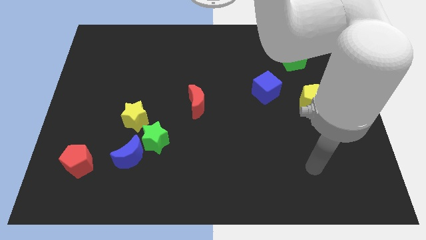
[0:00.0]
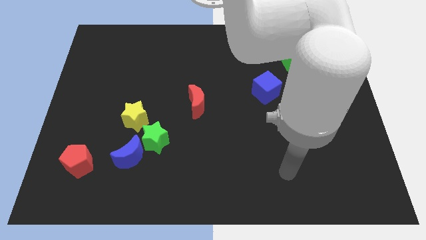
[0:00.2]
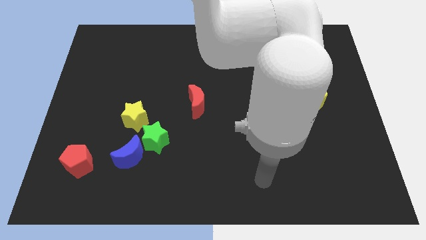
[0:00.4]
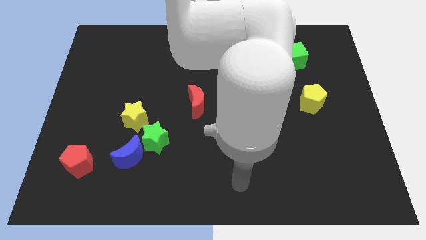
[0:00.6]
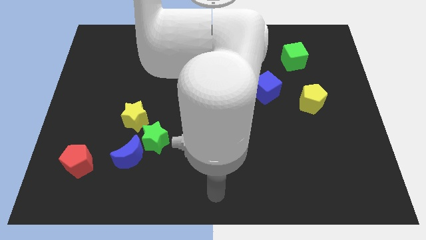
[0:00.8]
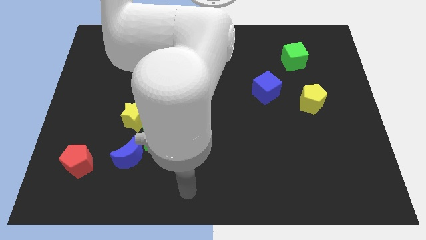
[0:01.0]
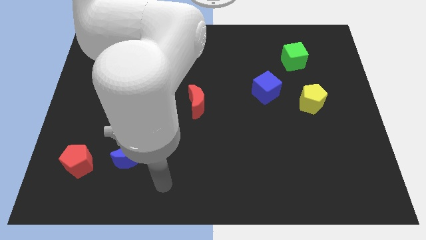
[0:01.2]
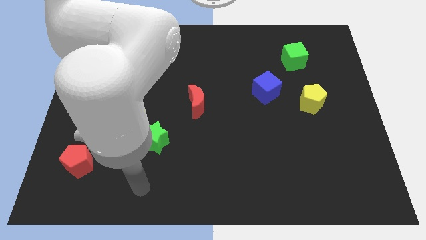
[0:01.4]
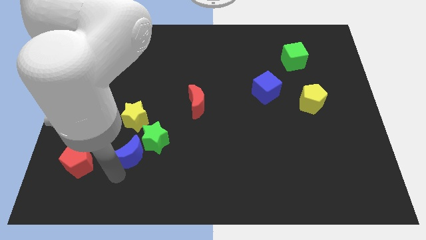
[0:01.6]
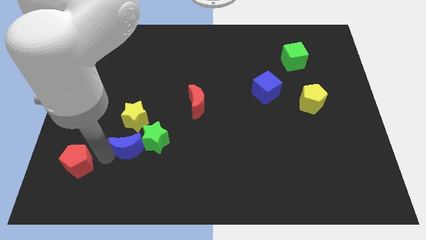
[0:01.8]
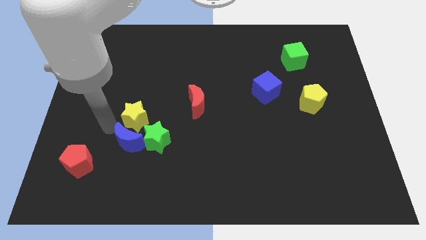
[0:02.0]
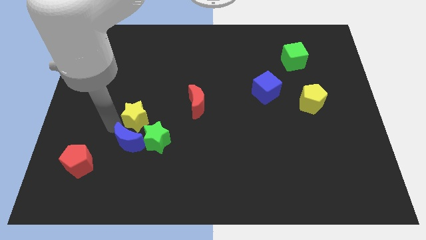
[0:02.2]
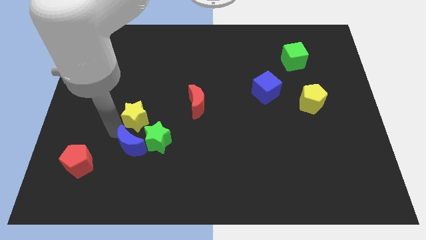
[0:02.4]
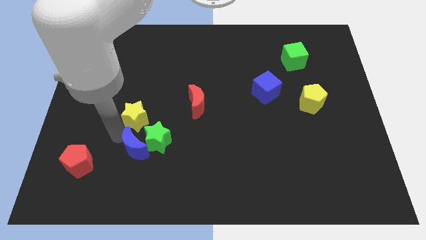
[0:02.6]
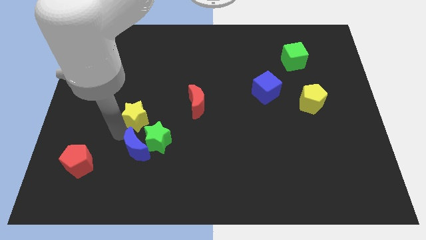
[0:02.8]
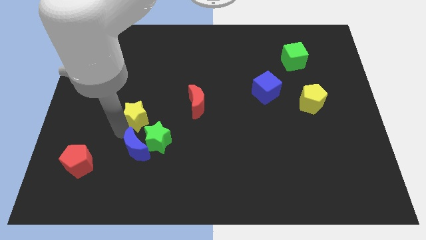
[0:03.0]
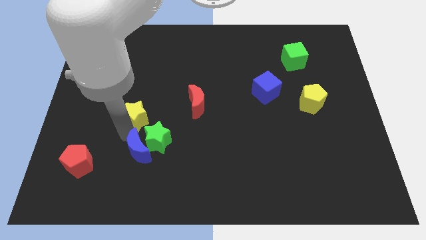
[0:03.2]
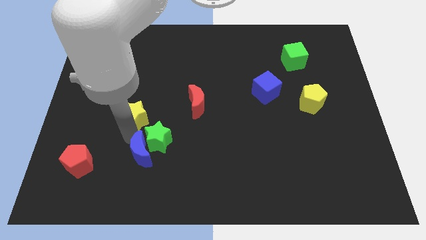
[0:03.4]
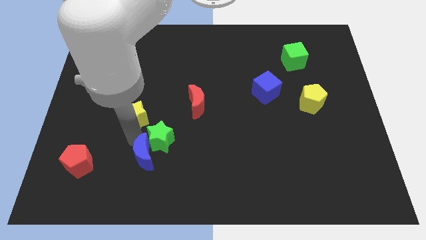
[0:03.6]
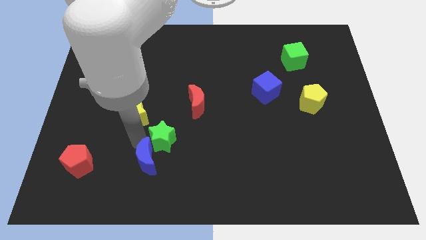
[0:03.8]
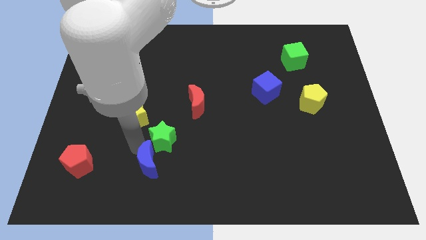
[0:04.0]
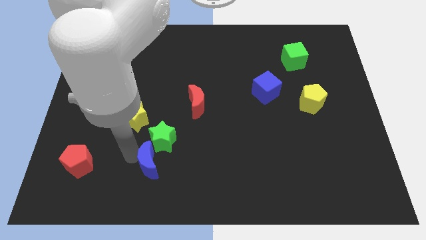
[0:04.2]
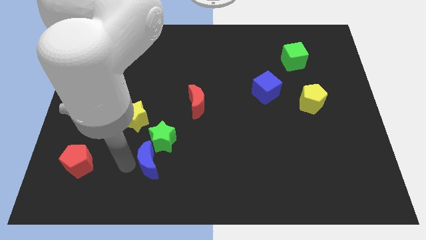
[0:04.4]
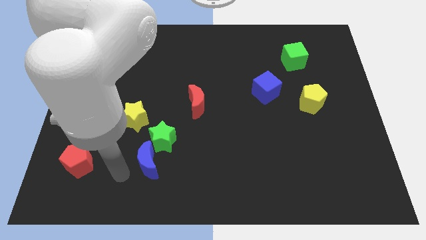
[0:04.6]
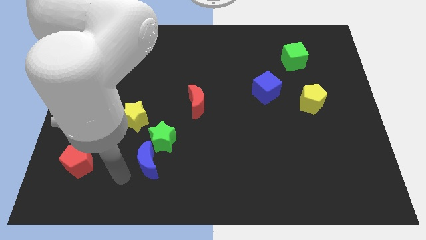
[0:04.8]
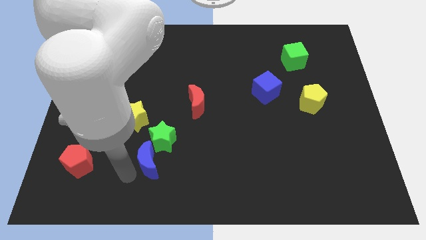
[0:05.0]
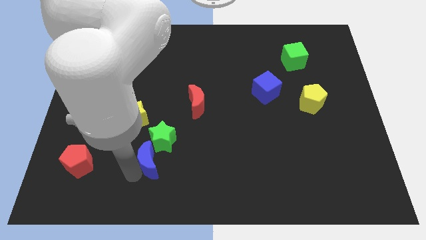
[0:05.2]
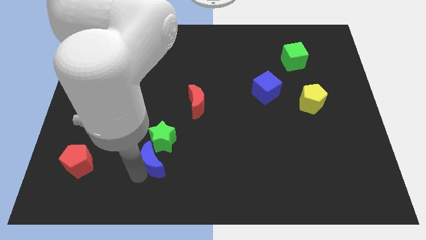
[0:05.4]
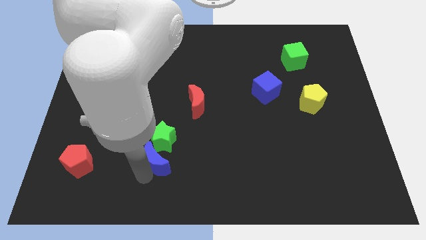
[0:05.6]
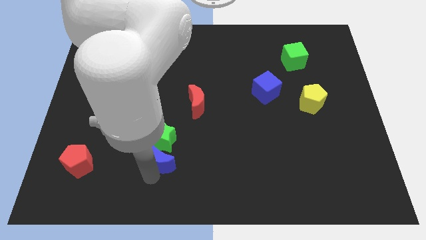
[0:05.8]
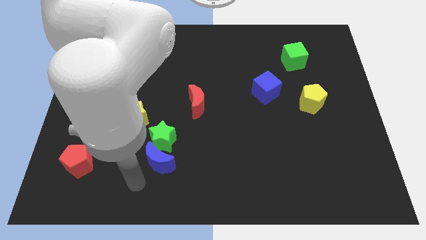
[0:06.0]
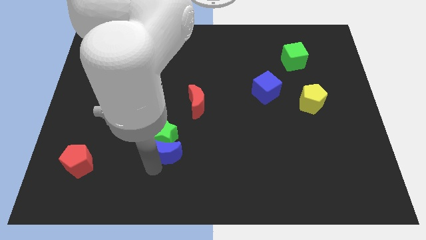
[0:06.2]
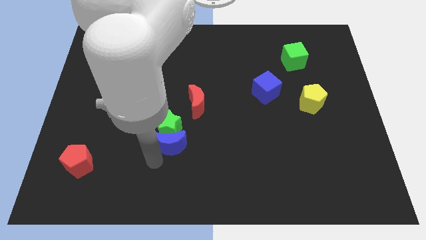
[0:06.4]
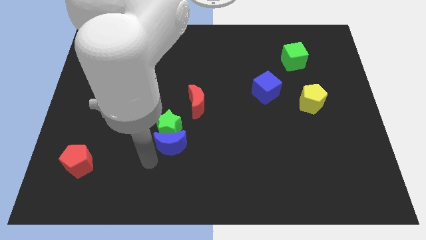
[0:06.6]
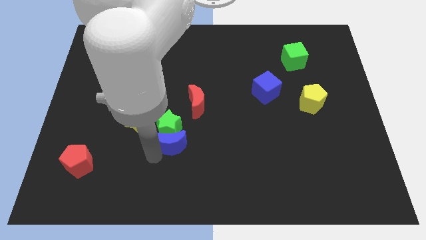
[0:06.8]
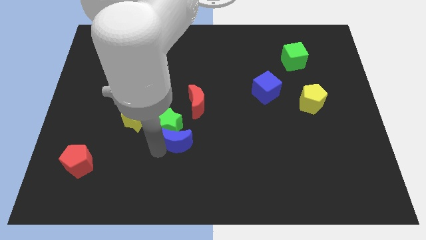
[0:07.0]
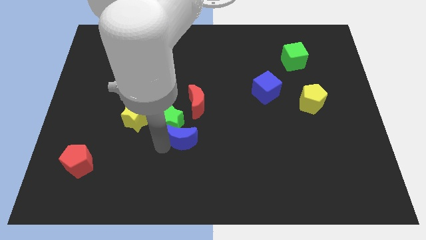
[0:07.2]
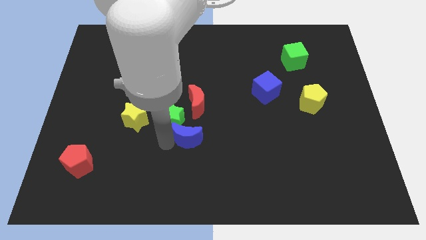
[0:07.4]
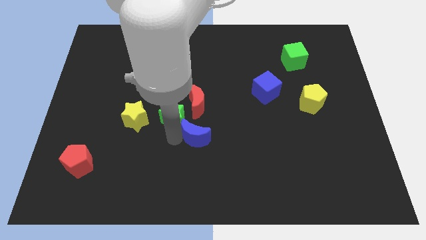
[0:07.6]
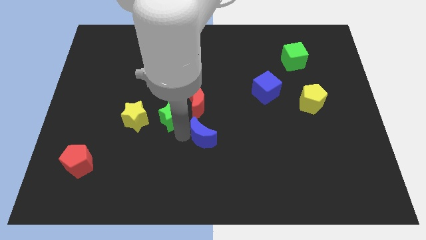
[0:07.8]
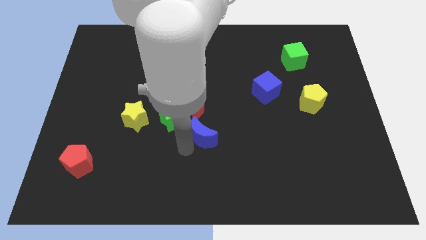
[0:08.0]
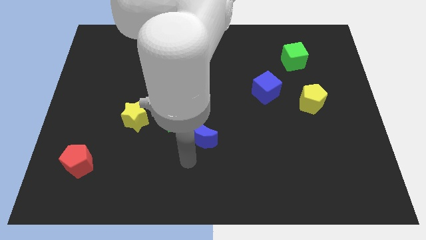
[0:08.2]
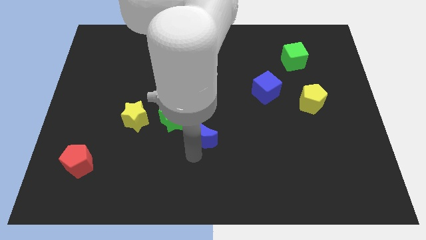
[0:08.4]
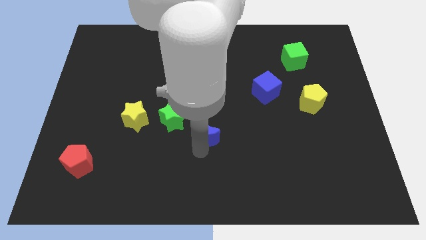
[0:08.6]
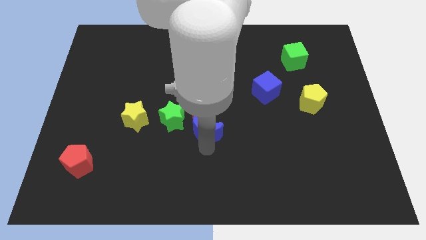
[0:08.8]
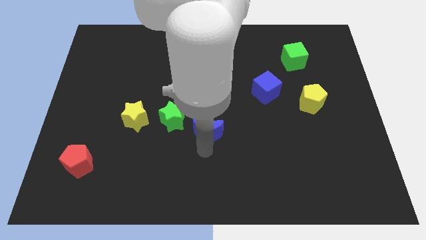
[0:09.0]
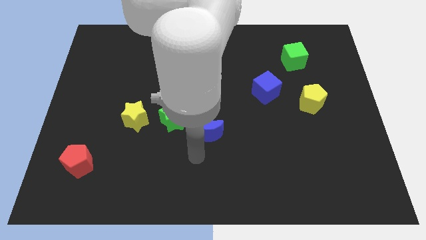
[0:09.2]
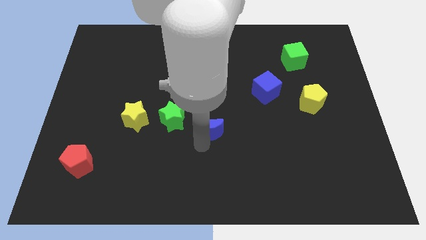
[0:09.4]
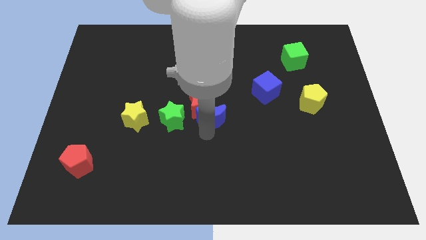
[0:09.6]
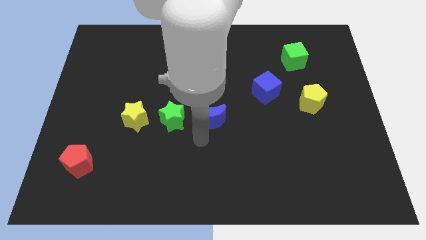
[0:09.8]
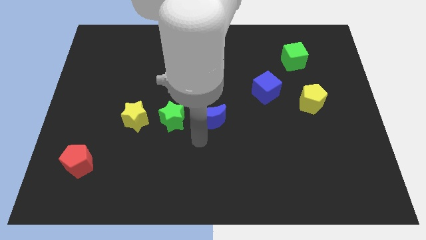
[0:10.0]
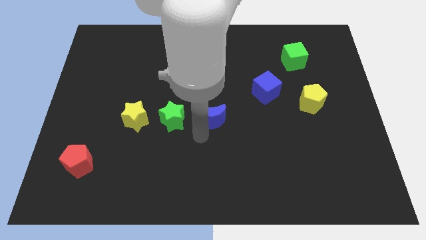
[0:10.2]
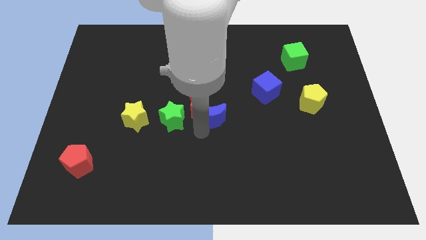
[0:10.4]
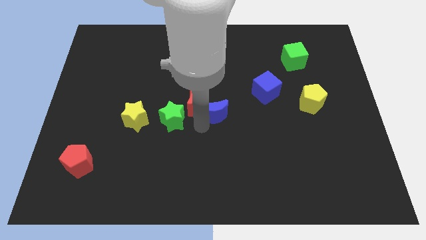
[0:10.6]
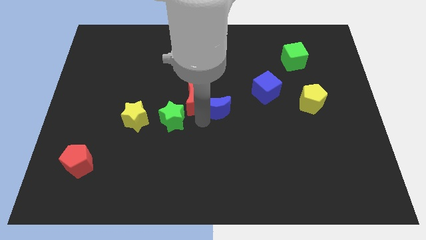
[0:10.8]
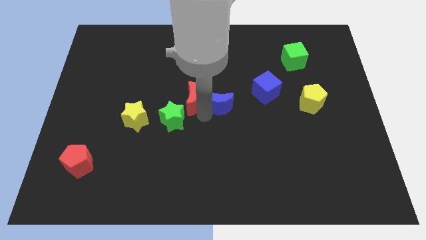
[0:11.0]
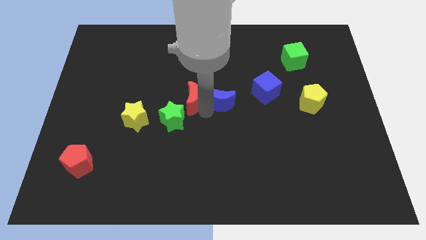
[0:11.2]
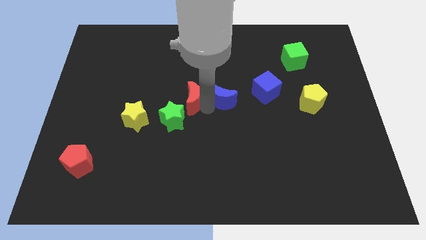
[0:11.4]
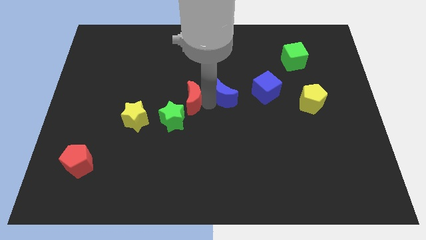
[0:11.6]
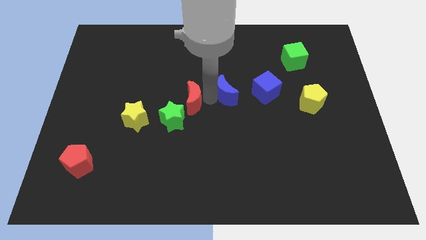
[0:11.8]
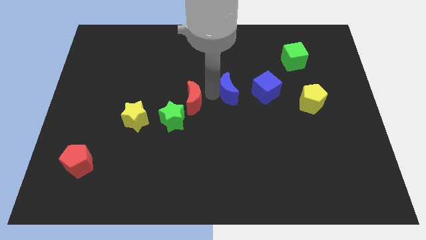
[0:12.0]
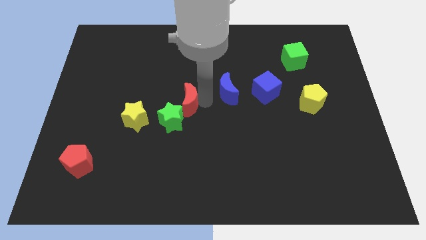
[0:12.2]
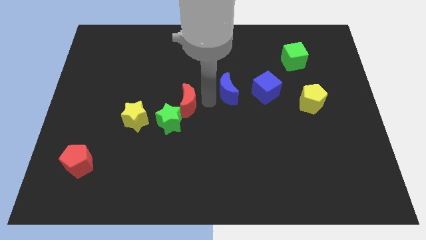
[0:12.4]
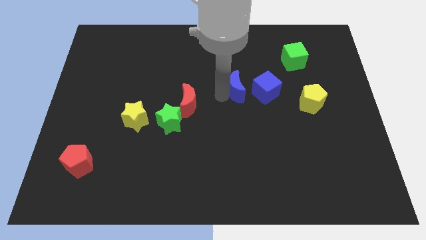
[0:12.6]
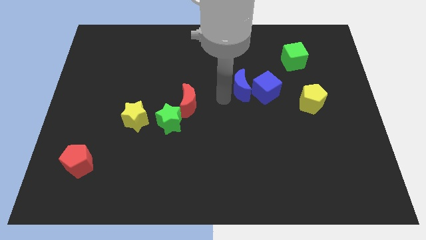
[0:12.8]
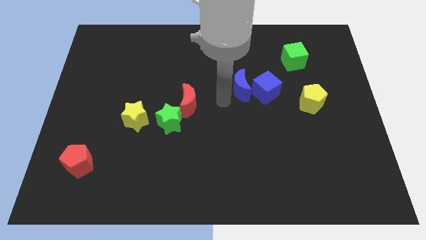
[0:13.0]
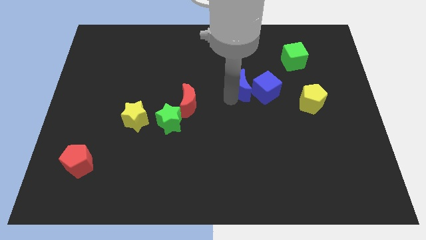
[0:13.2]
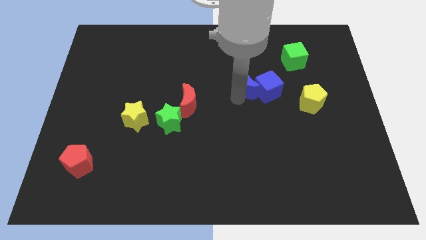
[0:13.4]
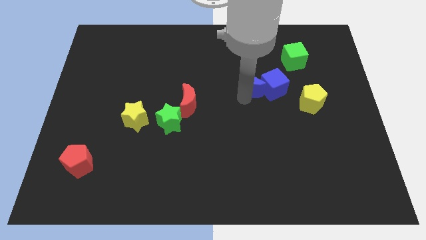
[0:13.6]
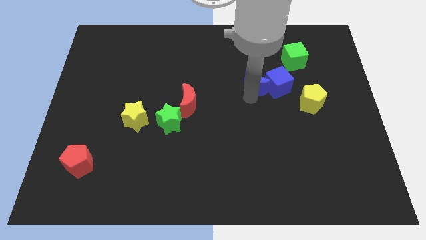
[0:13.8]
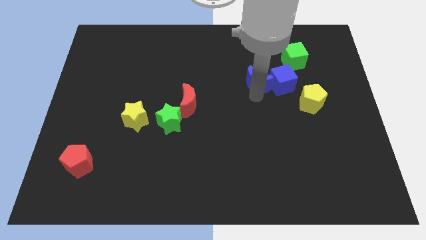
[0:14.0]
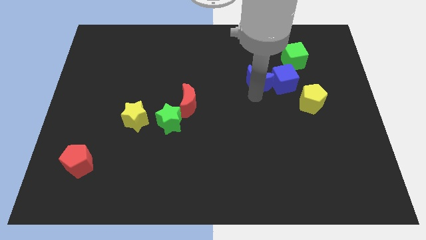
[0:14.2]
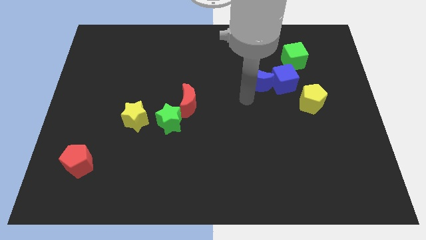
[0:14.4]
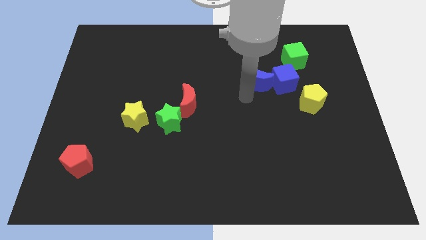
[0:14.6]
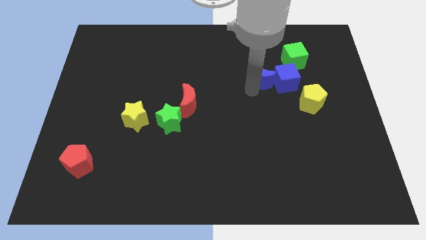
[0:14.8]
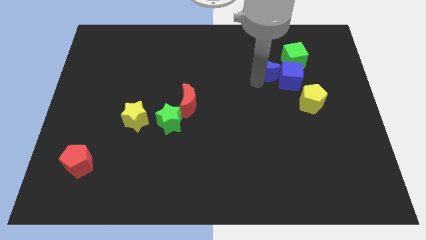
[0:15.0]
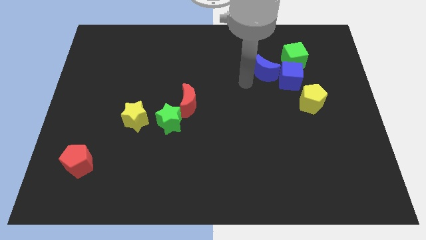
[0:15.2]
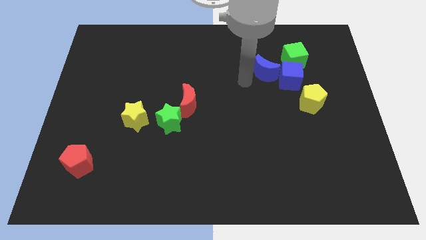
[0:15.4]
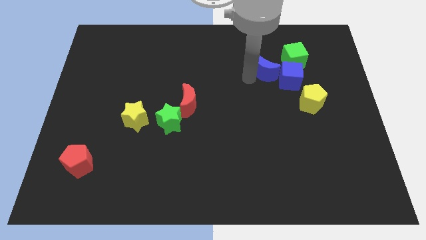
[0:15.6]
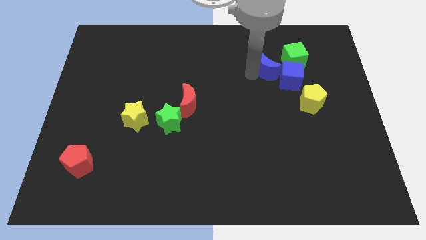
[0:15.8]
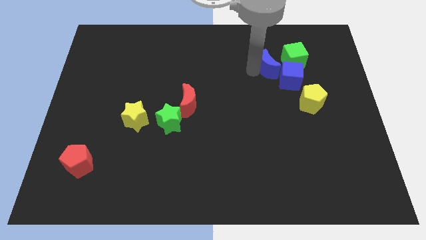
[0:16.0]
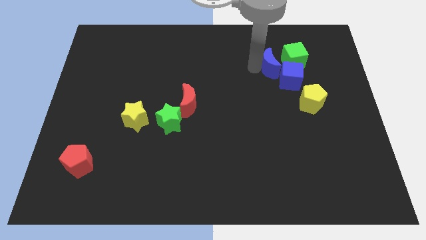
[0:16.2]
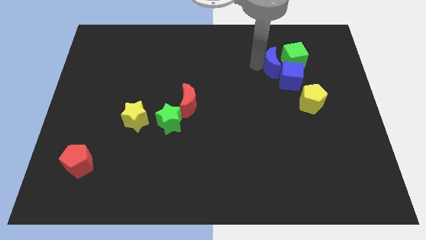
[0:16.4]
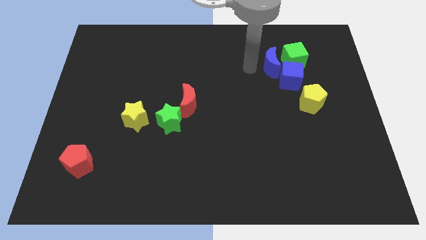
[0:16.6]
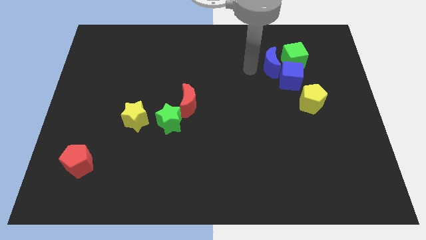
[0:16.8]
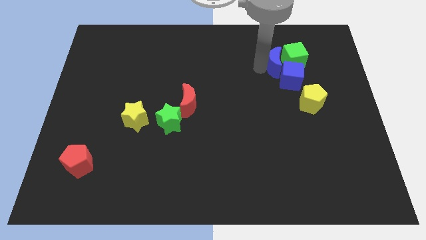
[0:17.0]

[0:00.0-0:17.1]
move the blue moon close to the green cube
